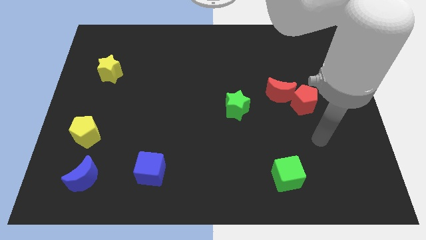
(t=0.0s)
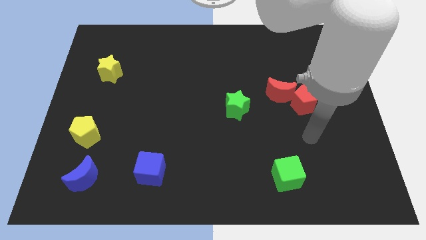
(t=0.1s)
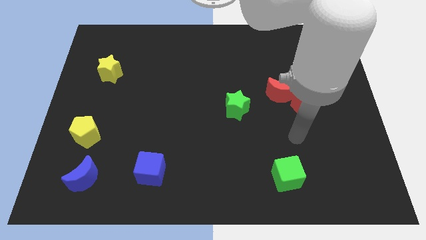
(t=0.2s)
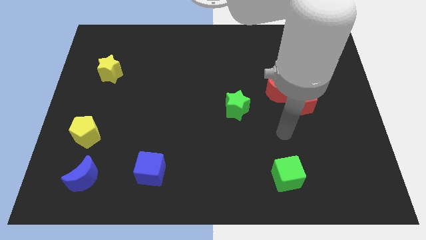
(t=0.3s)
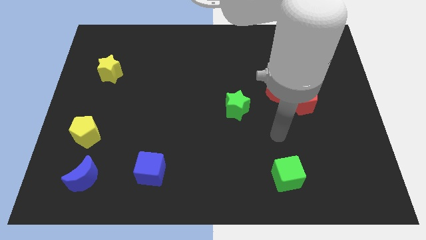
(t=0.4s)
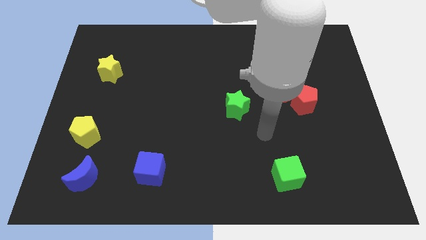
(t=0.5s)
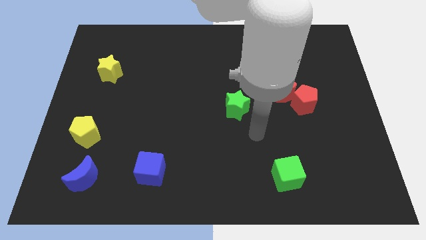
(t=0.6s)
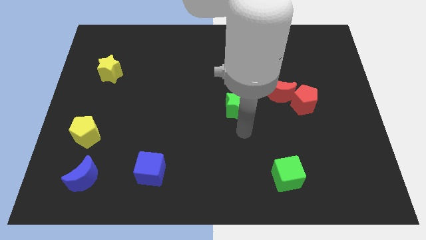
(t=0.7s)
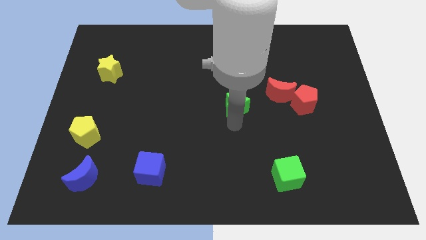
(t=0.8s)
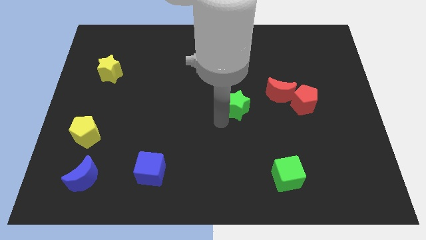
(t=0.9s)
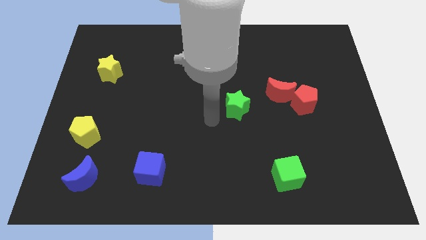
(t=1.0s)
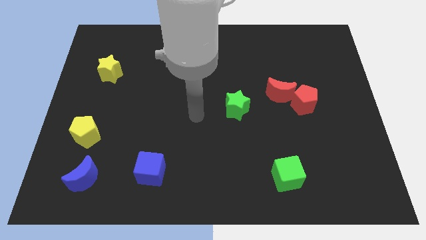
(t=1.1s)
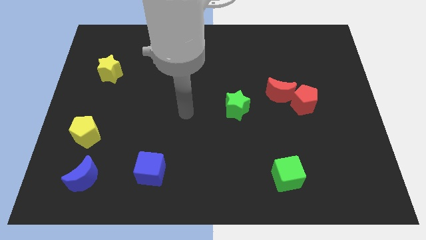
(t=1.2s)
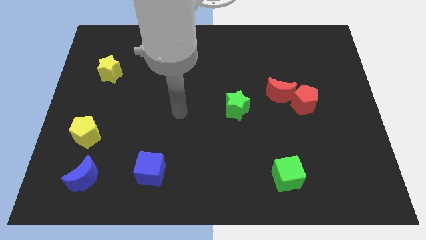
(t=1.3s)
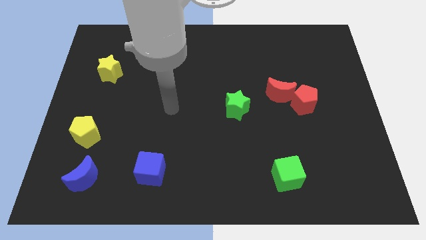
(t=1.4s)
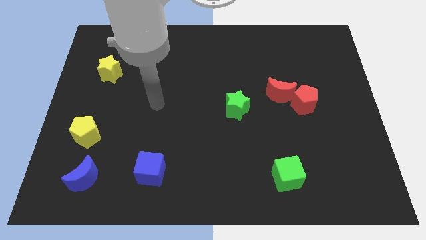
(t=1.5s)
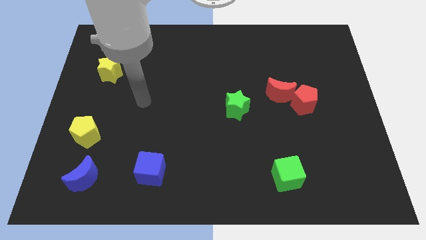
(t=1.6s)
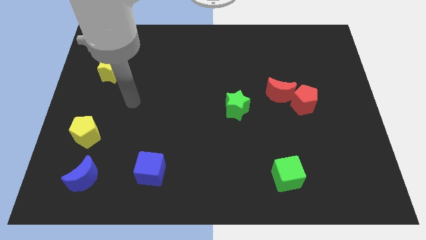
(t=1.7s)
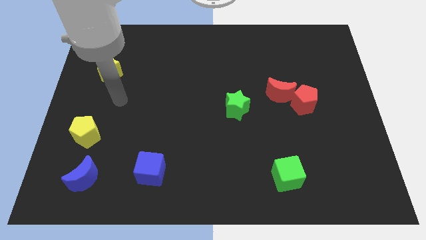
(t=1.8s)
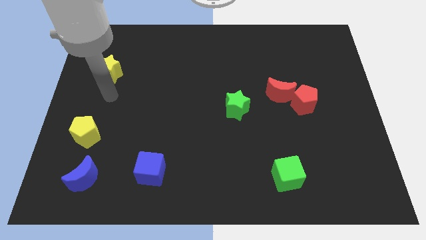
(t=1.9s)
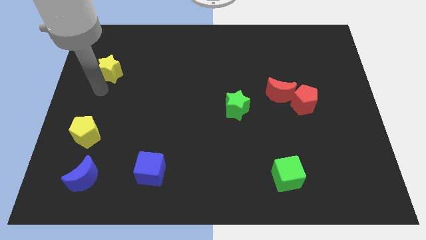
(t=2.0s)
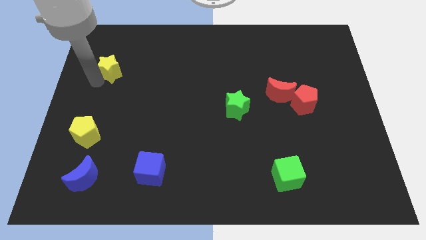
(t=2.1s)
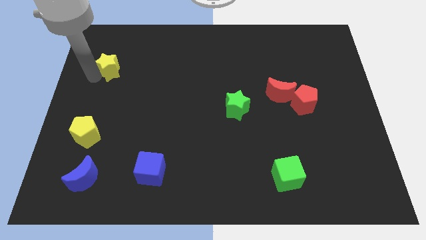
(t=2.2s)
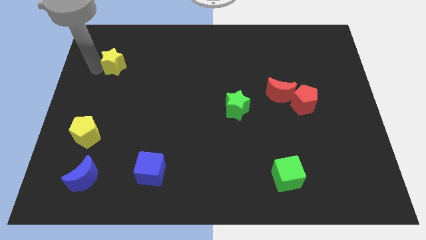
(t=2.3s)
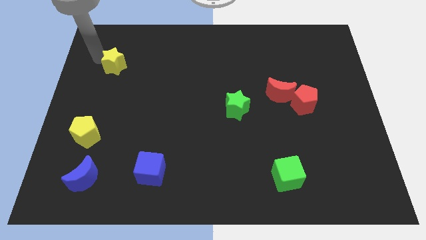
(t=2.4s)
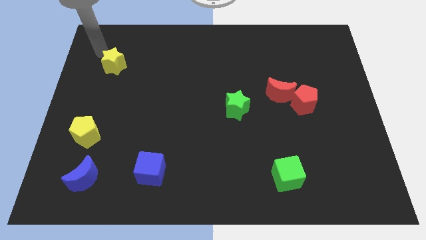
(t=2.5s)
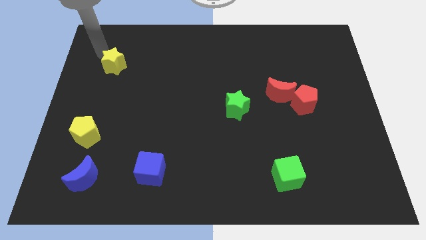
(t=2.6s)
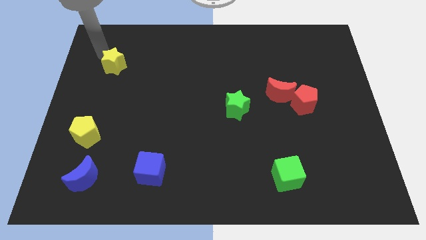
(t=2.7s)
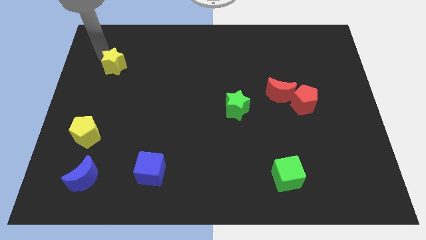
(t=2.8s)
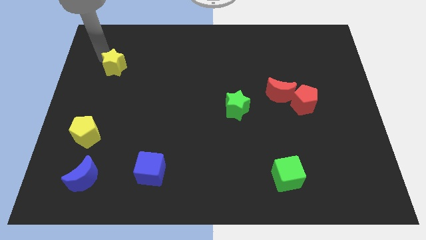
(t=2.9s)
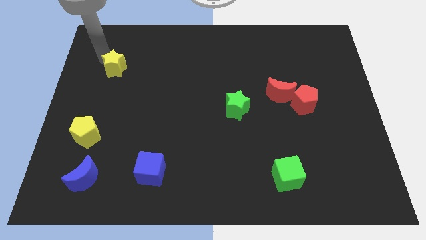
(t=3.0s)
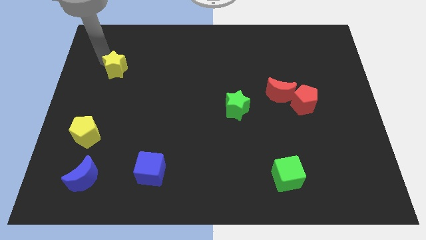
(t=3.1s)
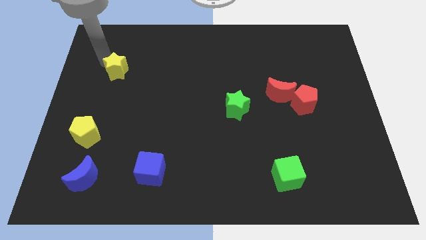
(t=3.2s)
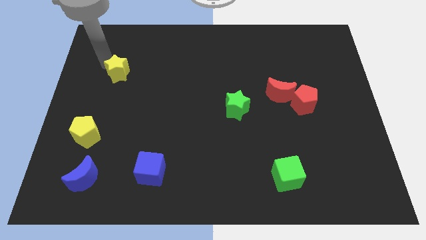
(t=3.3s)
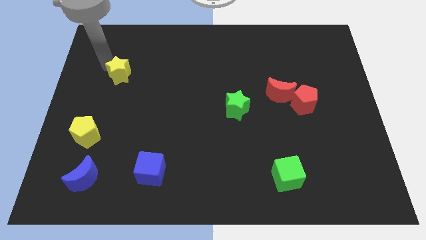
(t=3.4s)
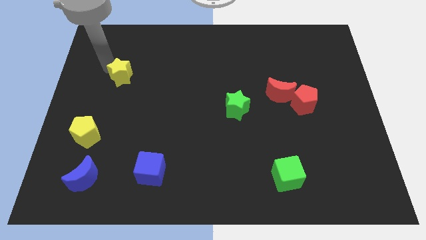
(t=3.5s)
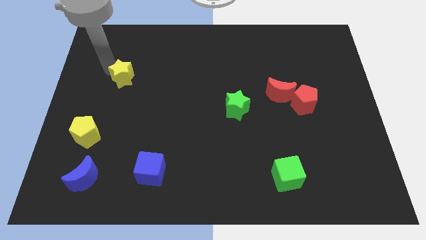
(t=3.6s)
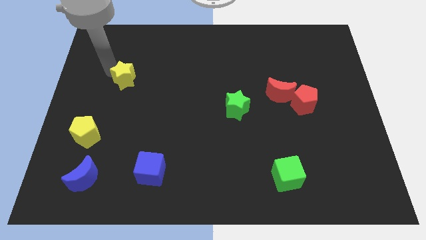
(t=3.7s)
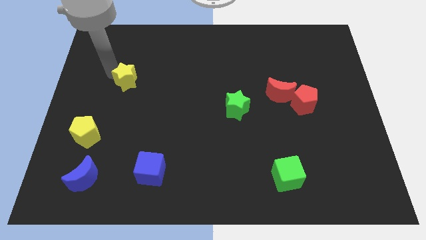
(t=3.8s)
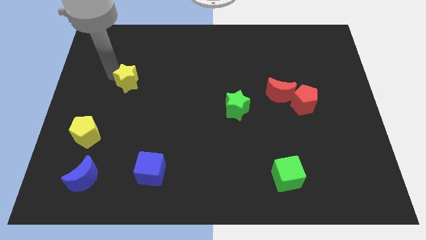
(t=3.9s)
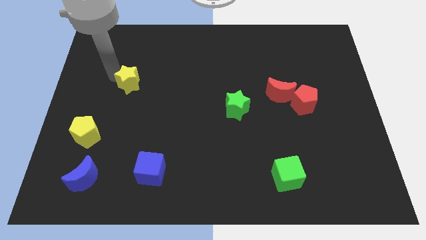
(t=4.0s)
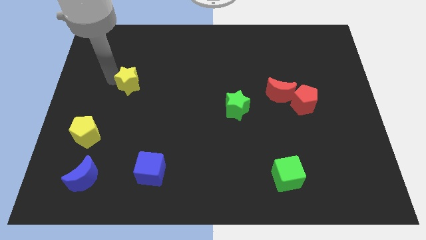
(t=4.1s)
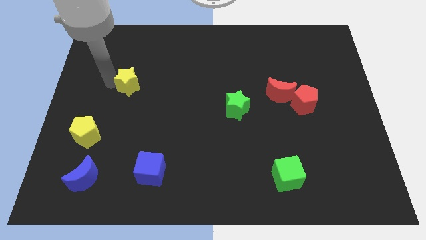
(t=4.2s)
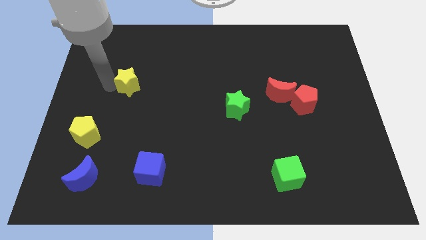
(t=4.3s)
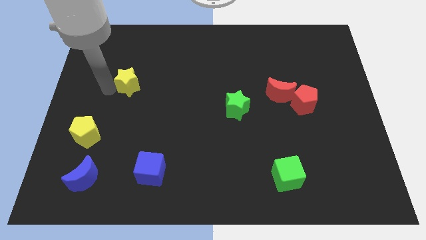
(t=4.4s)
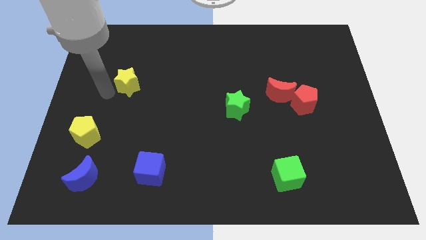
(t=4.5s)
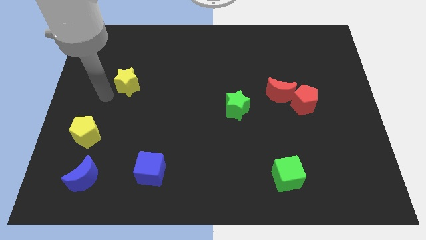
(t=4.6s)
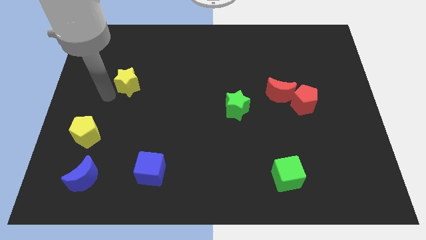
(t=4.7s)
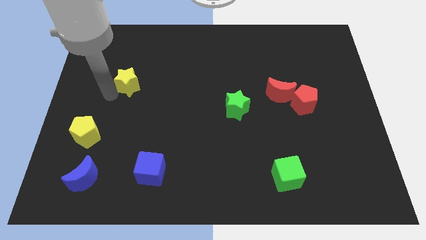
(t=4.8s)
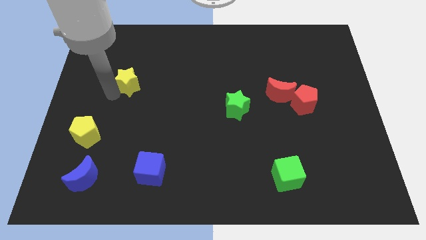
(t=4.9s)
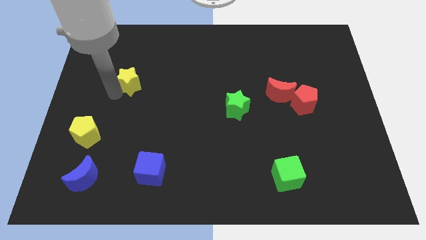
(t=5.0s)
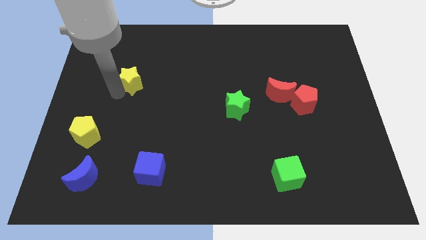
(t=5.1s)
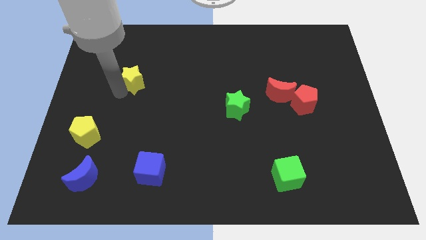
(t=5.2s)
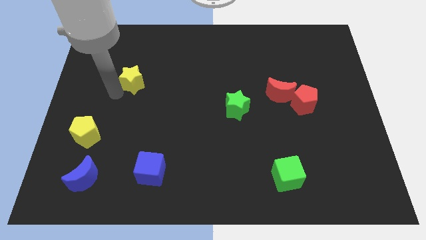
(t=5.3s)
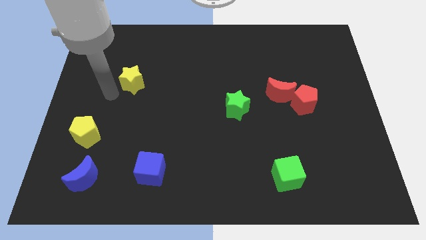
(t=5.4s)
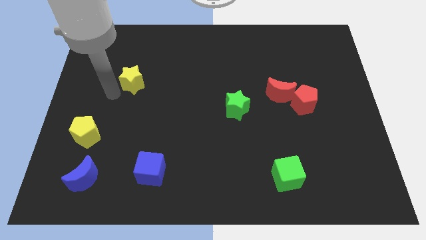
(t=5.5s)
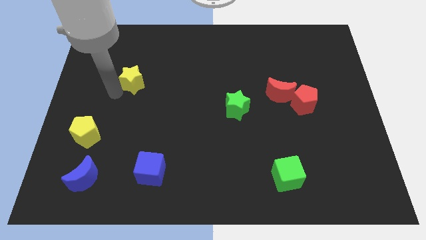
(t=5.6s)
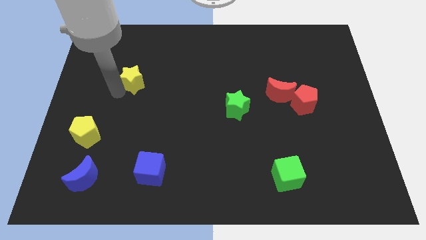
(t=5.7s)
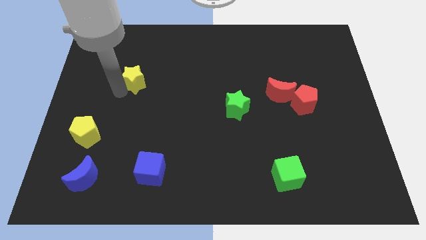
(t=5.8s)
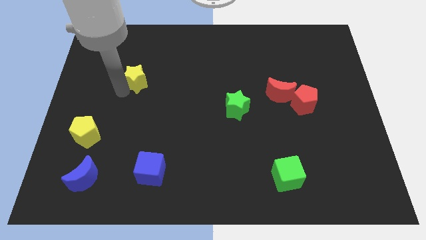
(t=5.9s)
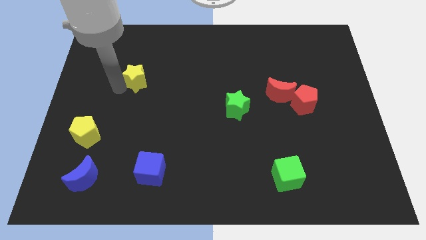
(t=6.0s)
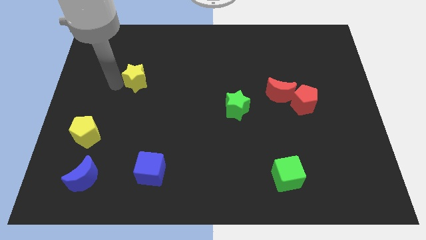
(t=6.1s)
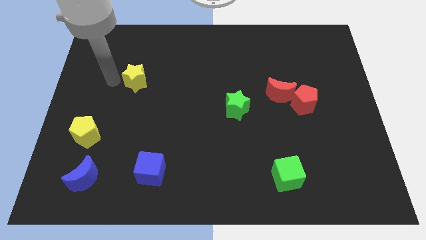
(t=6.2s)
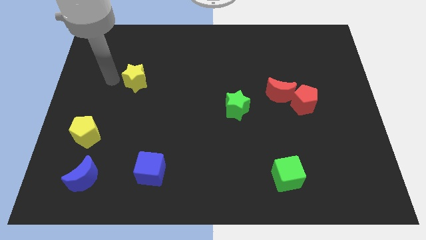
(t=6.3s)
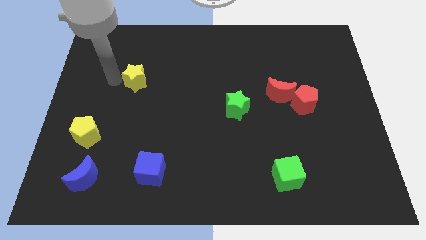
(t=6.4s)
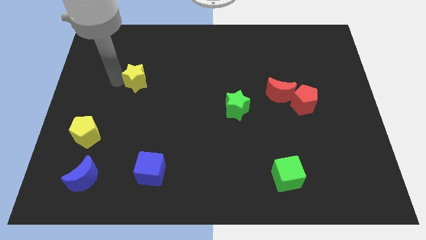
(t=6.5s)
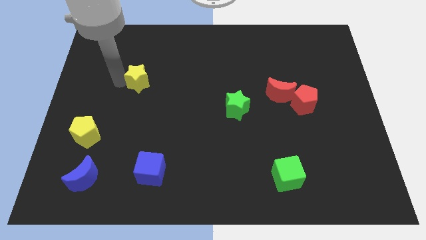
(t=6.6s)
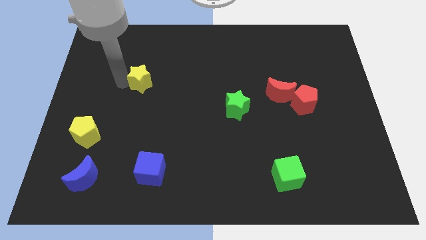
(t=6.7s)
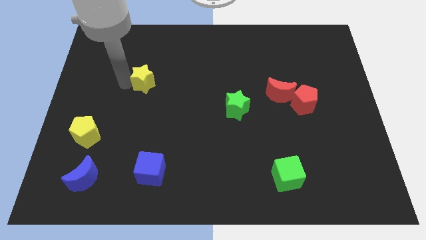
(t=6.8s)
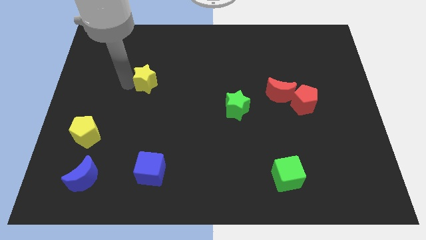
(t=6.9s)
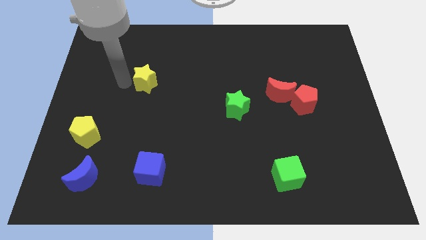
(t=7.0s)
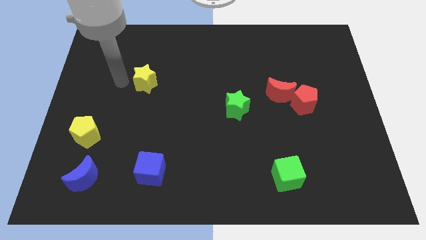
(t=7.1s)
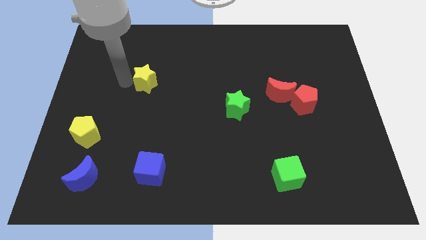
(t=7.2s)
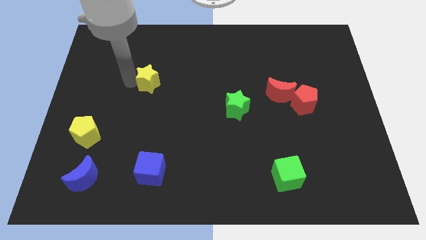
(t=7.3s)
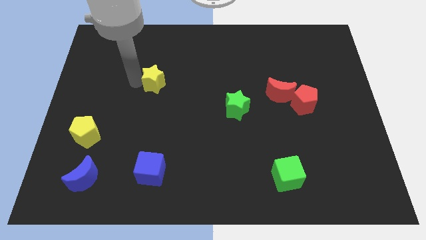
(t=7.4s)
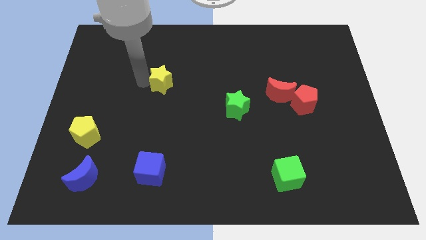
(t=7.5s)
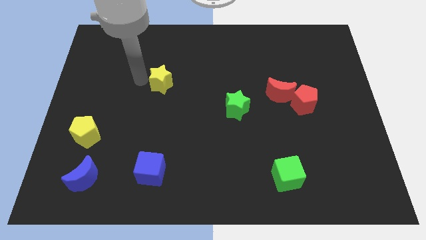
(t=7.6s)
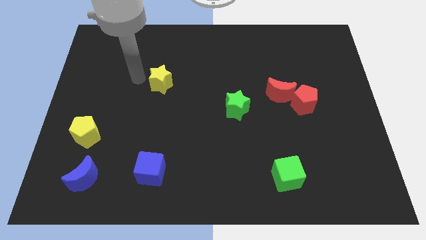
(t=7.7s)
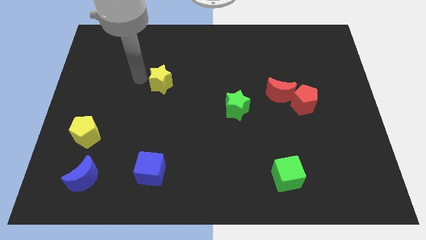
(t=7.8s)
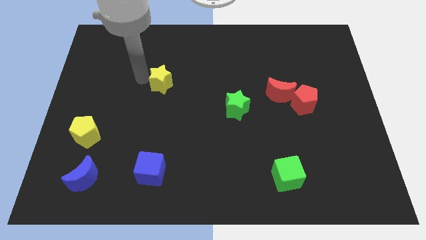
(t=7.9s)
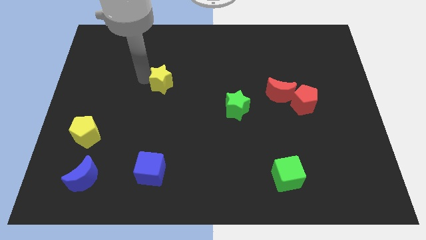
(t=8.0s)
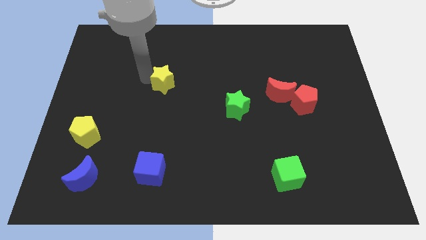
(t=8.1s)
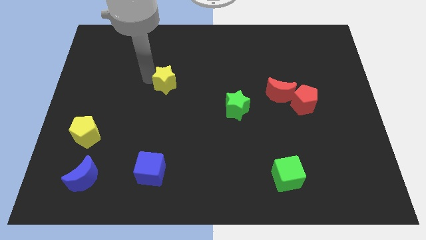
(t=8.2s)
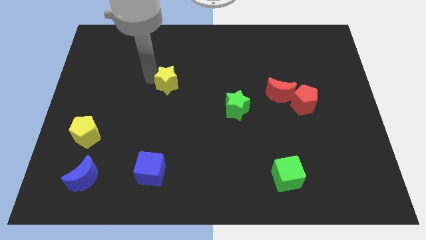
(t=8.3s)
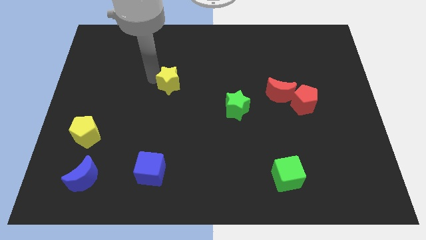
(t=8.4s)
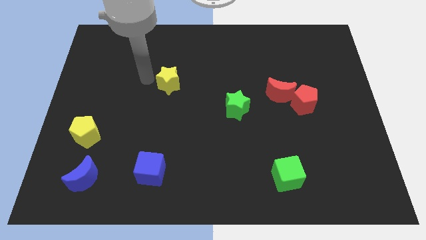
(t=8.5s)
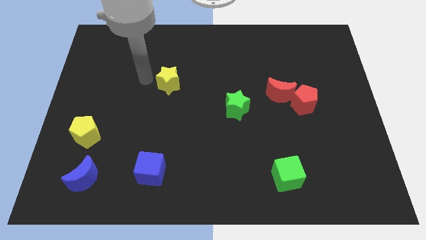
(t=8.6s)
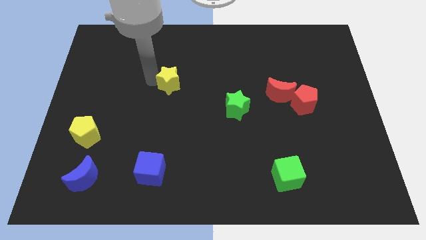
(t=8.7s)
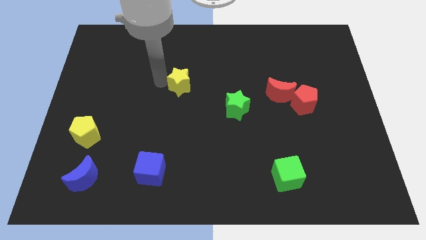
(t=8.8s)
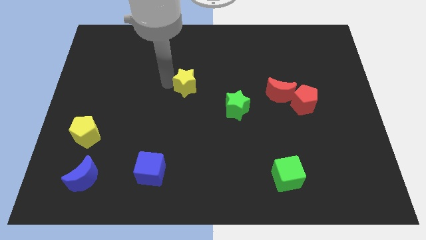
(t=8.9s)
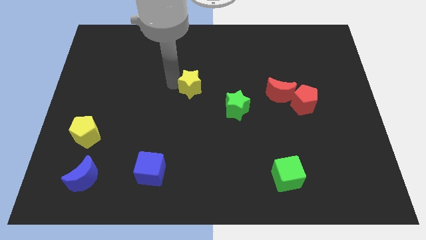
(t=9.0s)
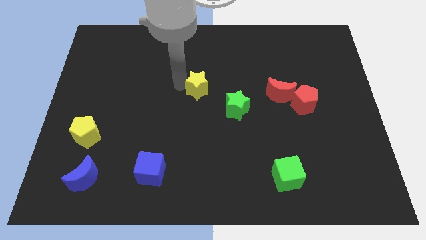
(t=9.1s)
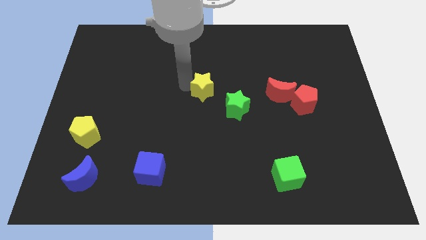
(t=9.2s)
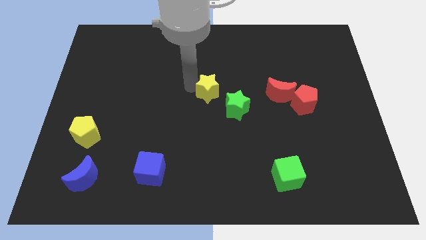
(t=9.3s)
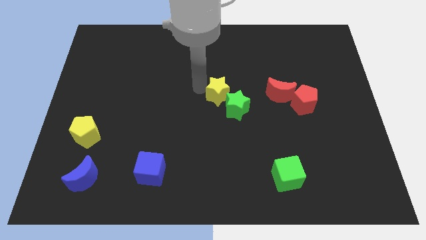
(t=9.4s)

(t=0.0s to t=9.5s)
move the yellow star to the green star
